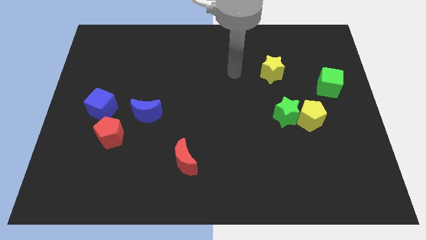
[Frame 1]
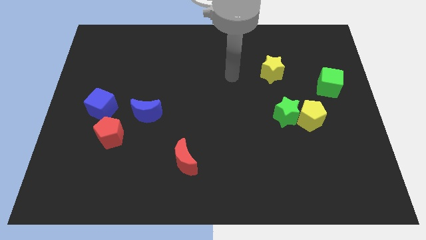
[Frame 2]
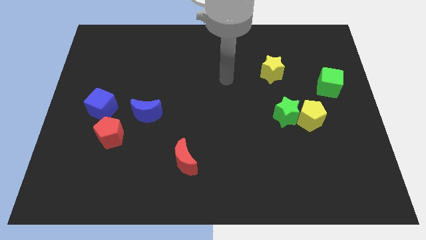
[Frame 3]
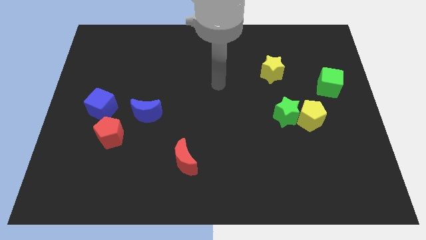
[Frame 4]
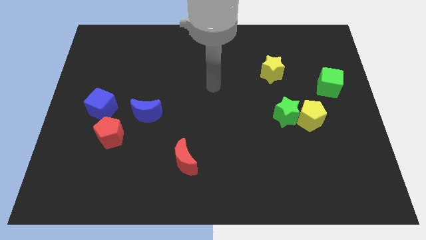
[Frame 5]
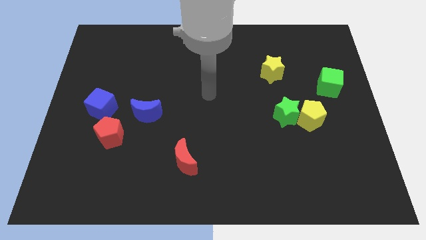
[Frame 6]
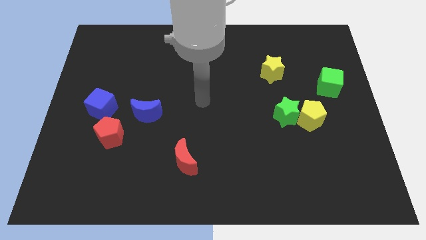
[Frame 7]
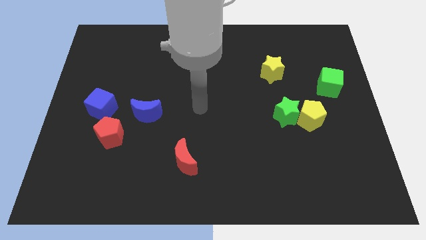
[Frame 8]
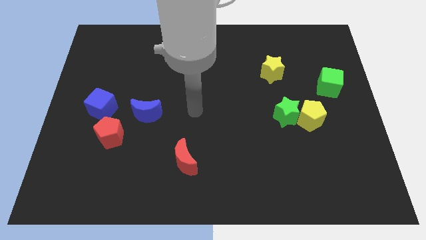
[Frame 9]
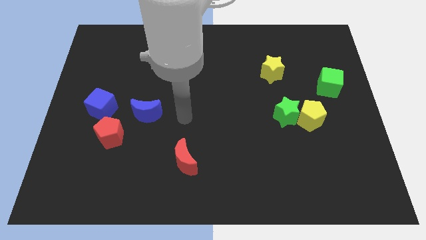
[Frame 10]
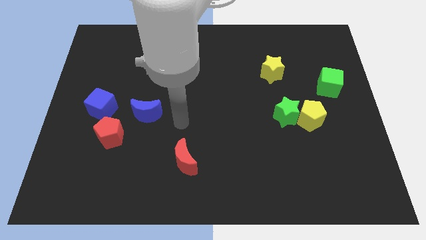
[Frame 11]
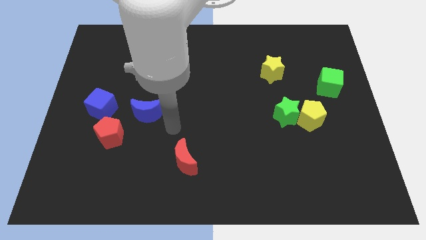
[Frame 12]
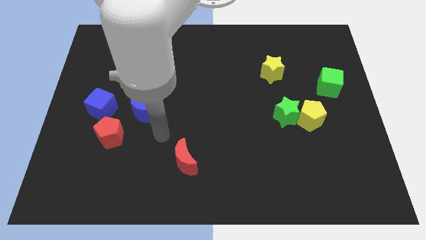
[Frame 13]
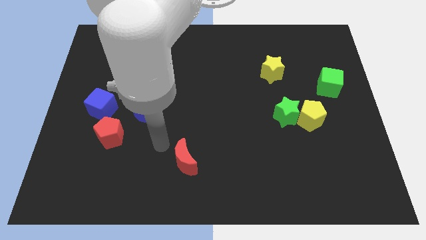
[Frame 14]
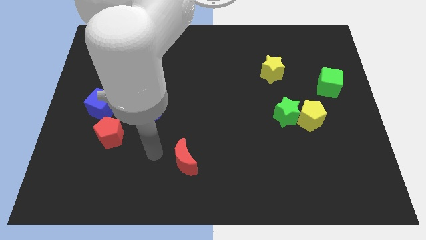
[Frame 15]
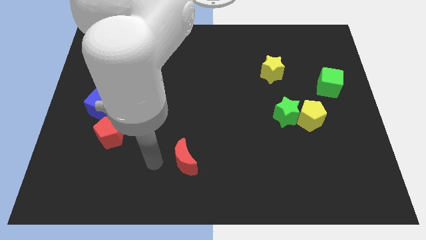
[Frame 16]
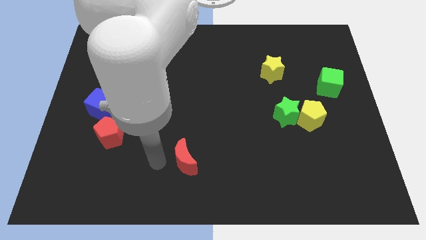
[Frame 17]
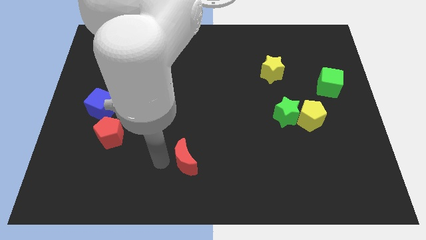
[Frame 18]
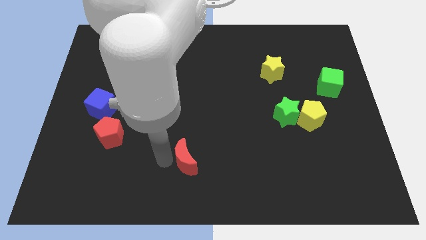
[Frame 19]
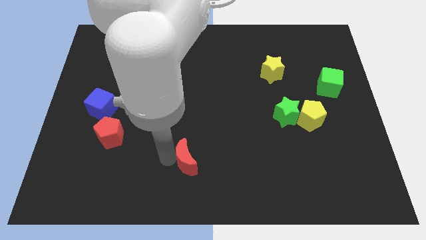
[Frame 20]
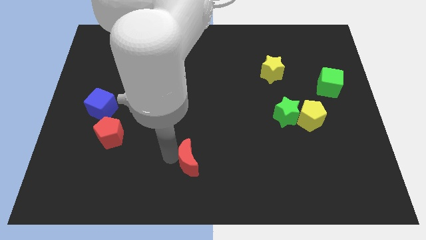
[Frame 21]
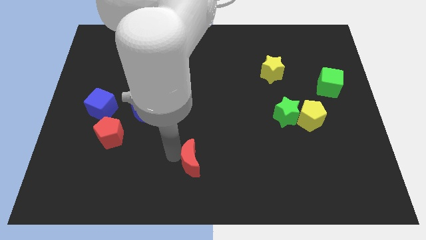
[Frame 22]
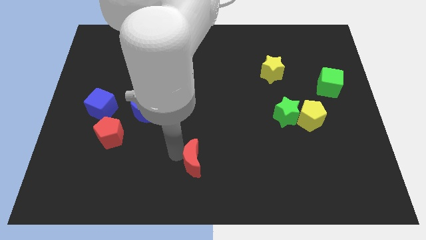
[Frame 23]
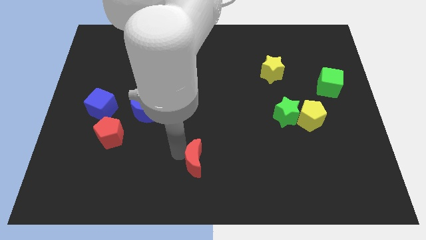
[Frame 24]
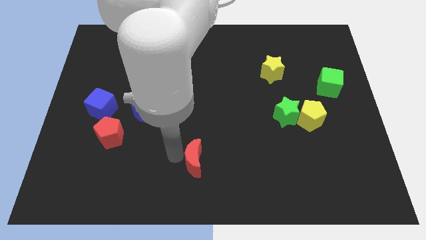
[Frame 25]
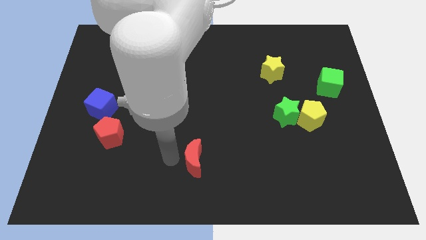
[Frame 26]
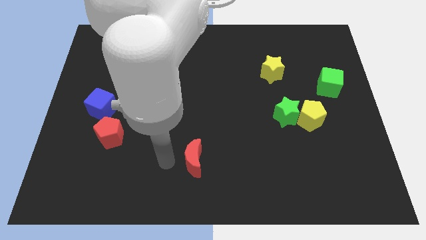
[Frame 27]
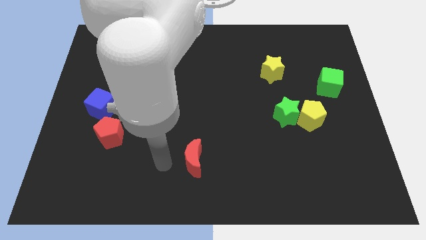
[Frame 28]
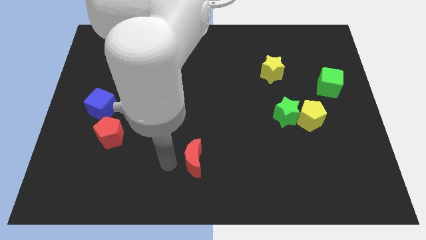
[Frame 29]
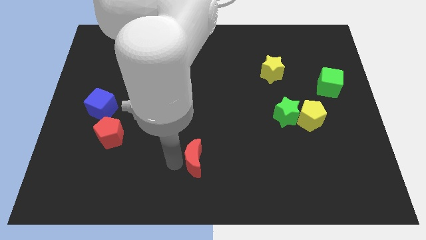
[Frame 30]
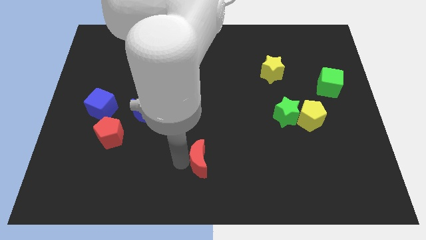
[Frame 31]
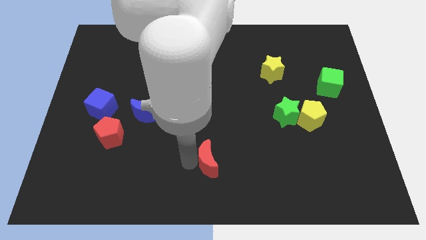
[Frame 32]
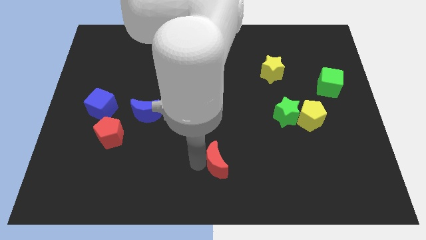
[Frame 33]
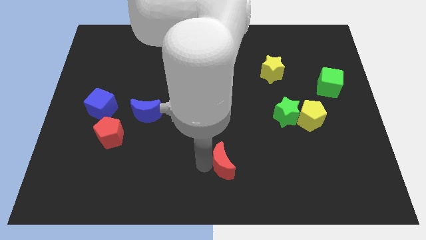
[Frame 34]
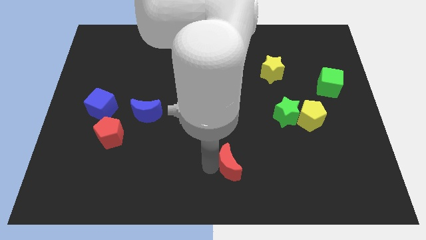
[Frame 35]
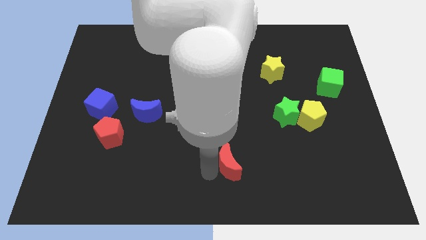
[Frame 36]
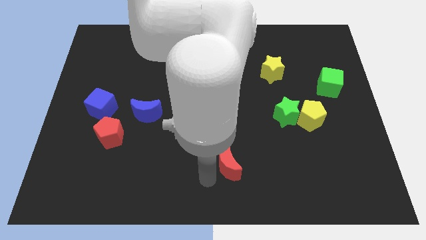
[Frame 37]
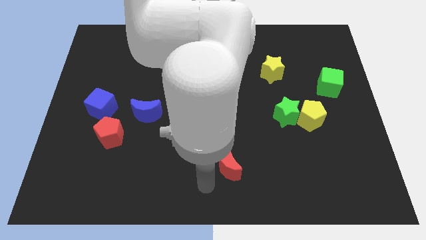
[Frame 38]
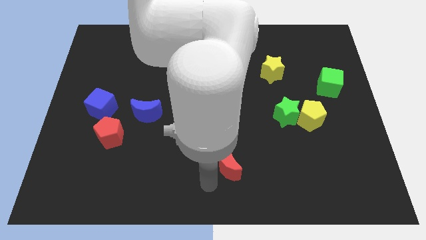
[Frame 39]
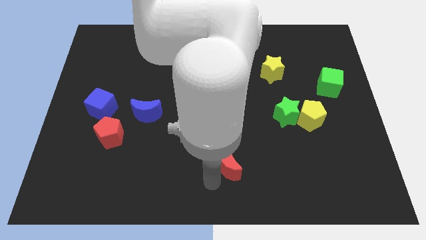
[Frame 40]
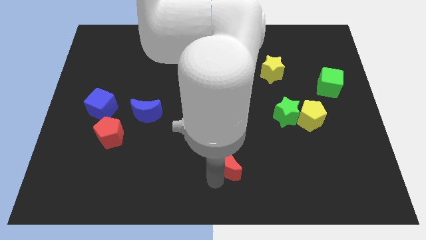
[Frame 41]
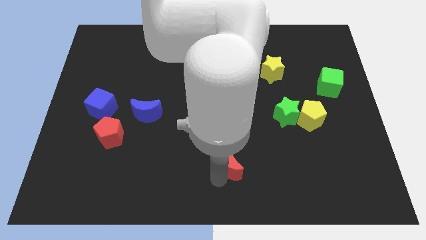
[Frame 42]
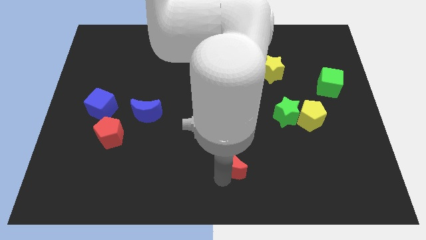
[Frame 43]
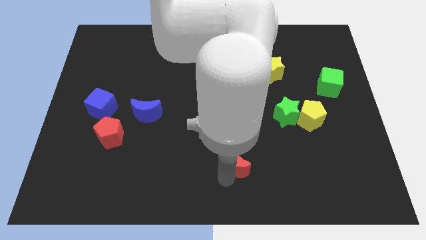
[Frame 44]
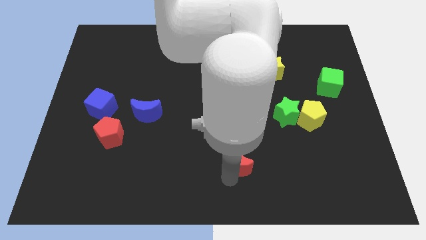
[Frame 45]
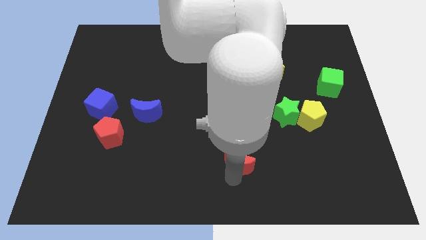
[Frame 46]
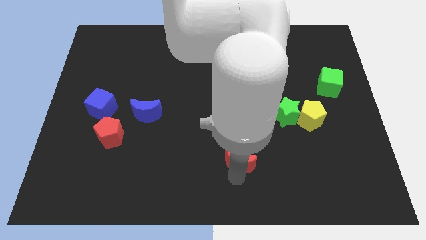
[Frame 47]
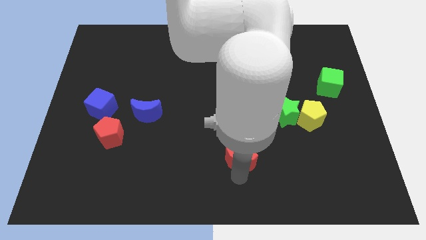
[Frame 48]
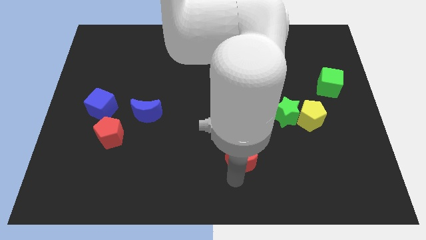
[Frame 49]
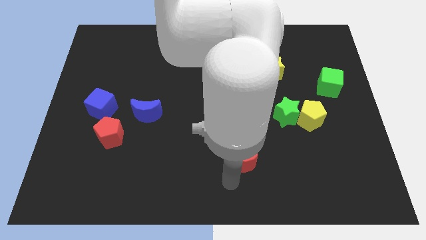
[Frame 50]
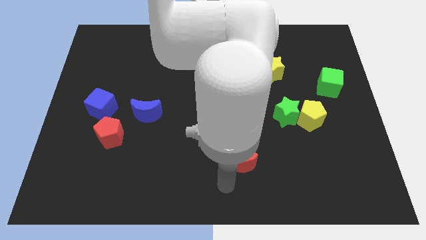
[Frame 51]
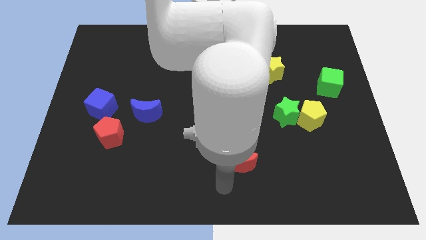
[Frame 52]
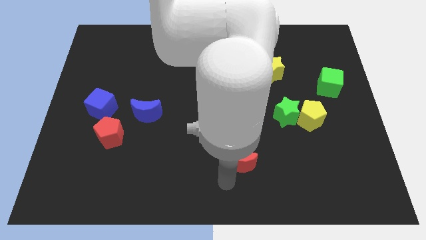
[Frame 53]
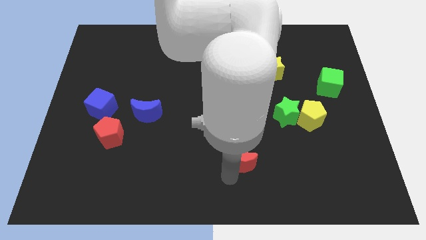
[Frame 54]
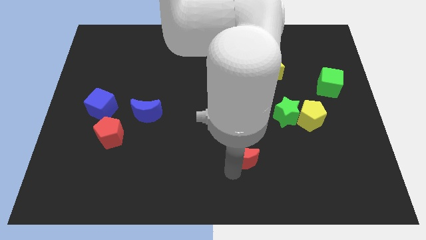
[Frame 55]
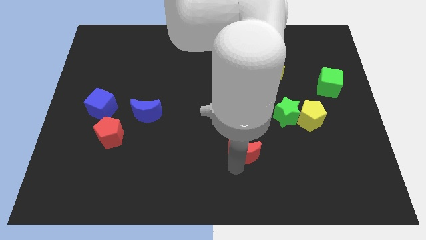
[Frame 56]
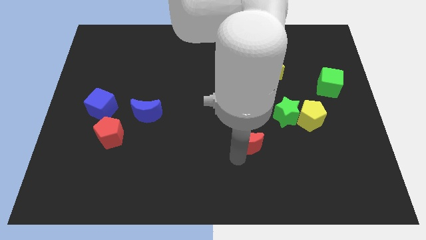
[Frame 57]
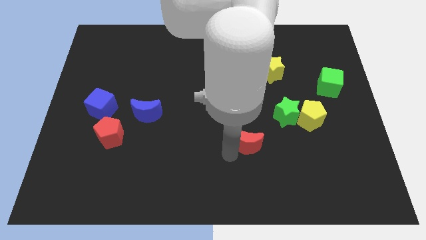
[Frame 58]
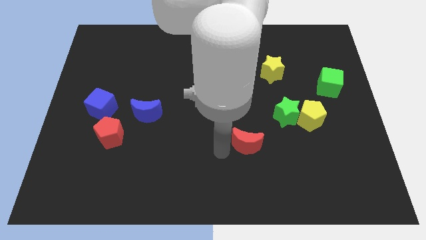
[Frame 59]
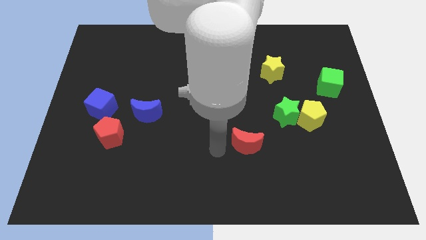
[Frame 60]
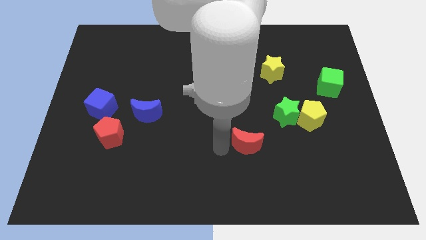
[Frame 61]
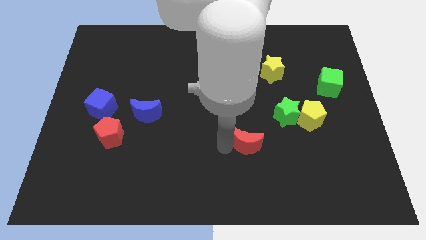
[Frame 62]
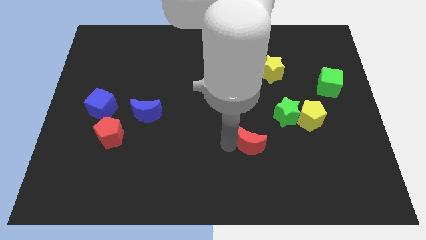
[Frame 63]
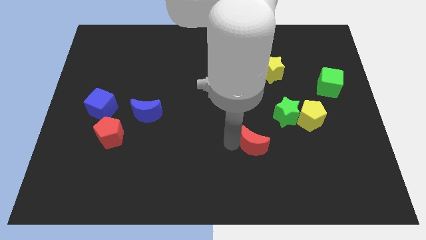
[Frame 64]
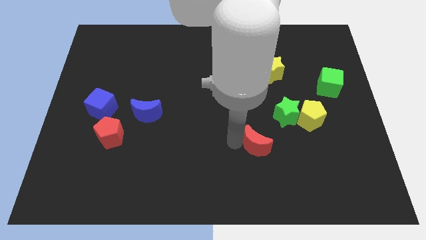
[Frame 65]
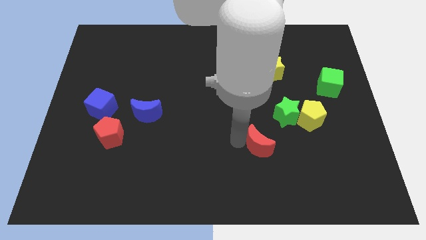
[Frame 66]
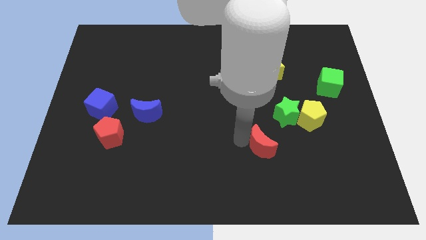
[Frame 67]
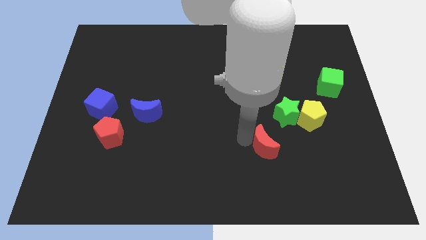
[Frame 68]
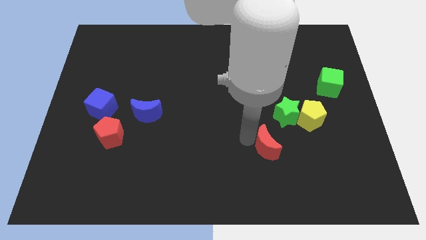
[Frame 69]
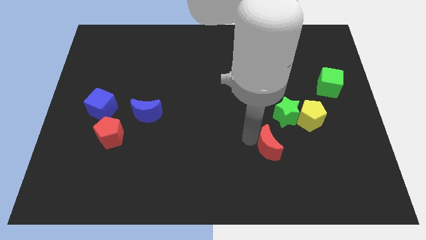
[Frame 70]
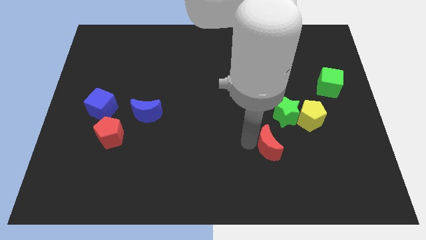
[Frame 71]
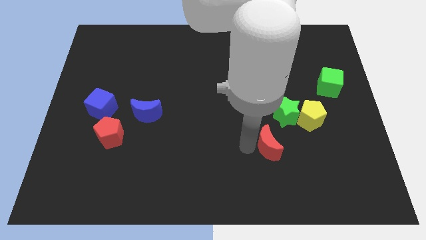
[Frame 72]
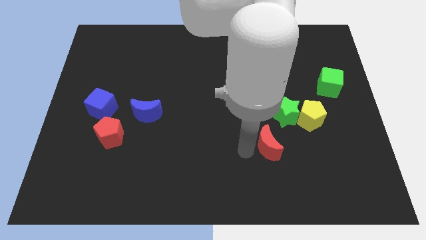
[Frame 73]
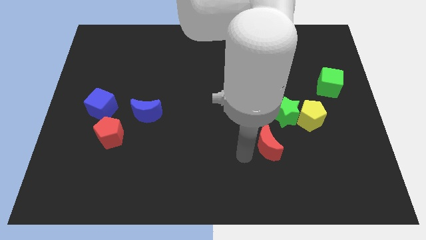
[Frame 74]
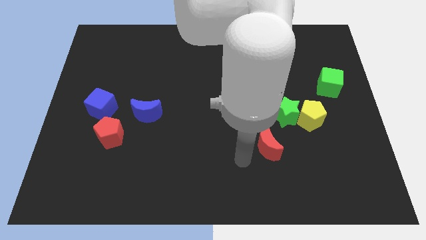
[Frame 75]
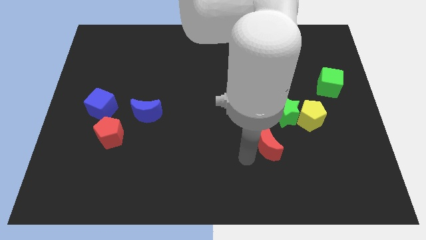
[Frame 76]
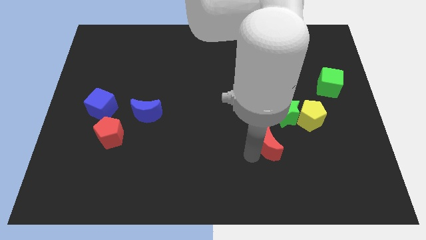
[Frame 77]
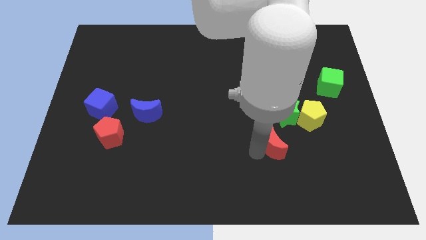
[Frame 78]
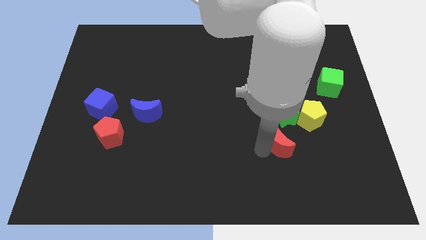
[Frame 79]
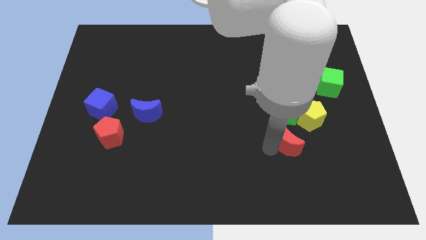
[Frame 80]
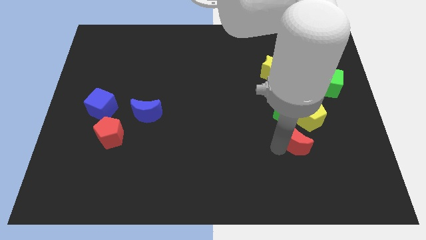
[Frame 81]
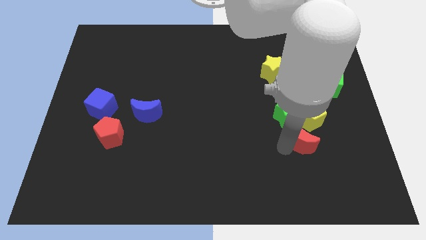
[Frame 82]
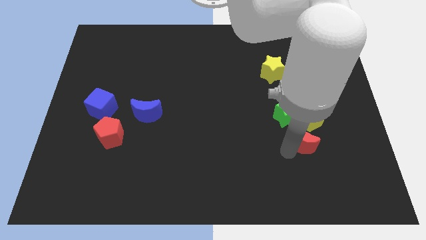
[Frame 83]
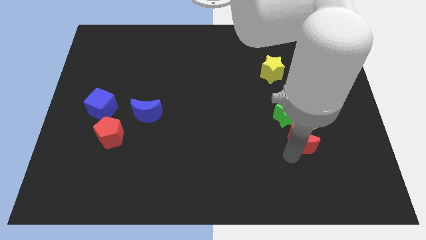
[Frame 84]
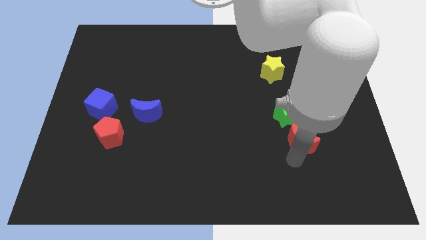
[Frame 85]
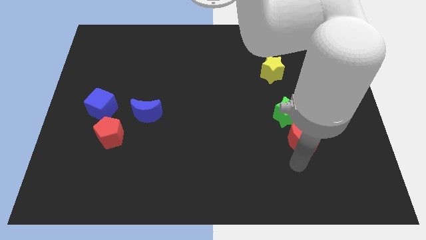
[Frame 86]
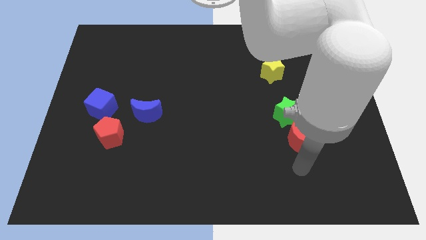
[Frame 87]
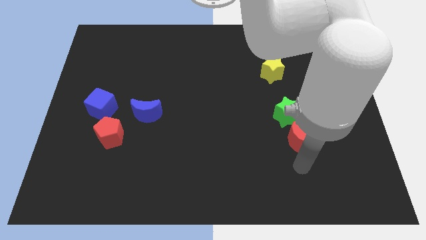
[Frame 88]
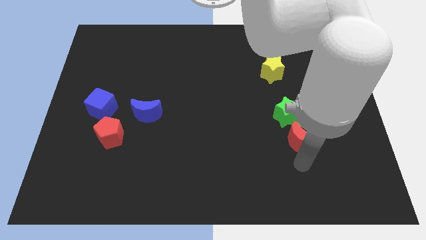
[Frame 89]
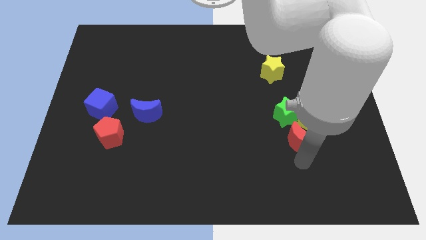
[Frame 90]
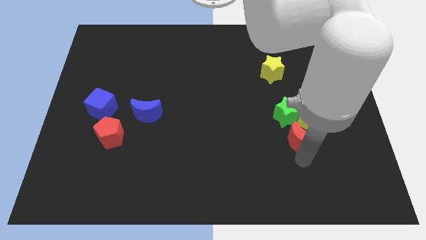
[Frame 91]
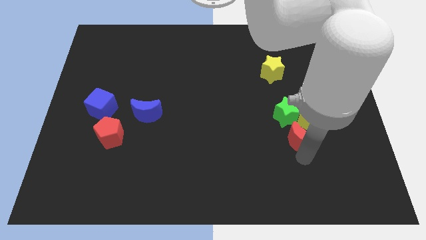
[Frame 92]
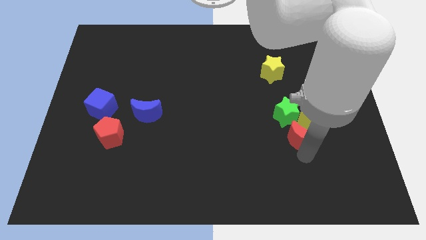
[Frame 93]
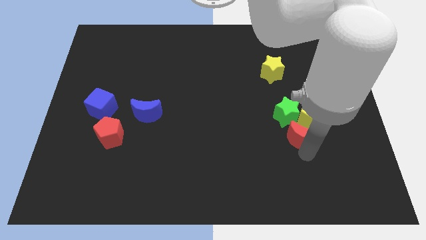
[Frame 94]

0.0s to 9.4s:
move the red moon next to the yellow pentagon
